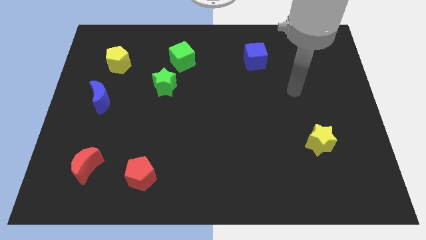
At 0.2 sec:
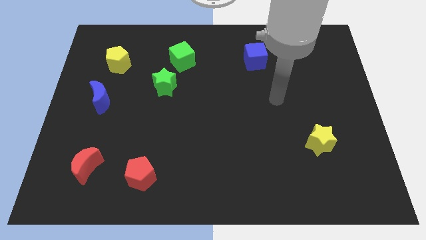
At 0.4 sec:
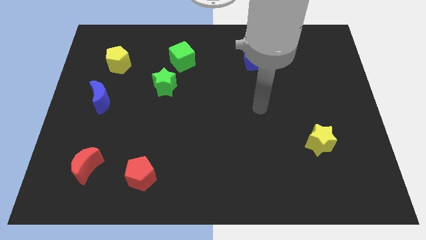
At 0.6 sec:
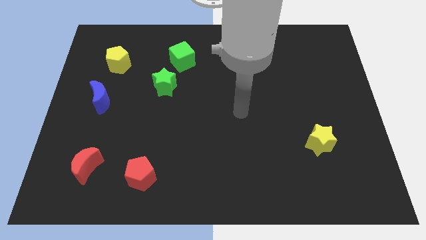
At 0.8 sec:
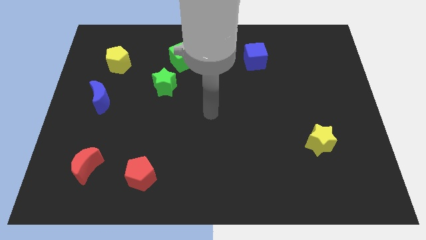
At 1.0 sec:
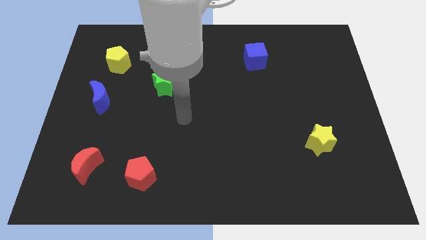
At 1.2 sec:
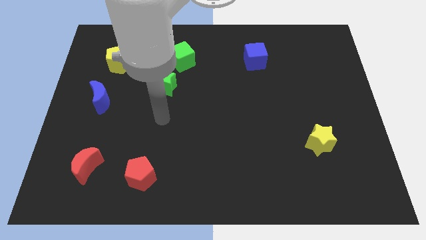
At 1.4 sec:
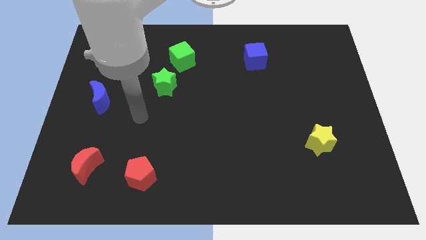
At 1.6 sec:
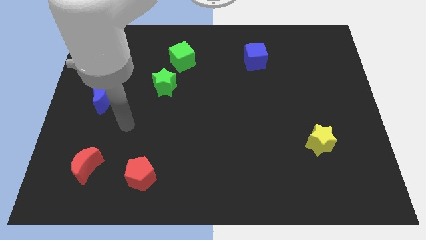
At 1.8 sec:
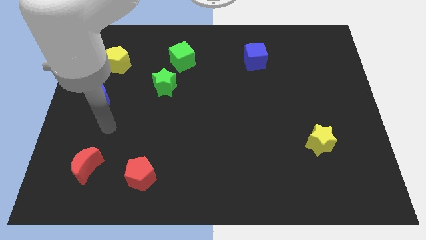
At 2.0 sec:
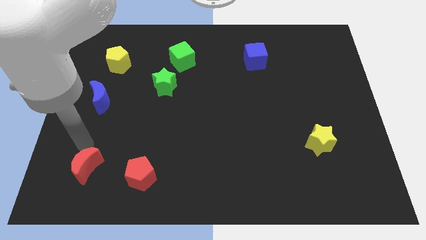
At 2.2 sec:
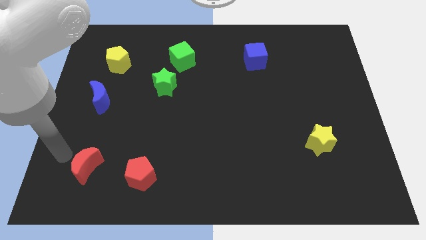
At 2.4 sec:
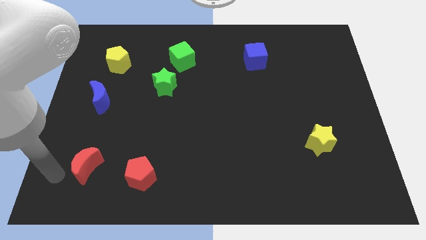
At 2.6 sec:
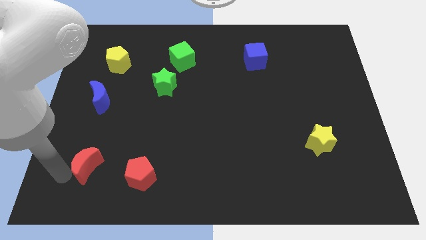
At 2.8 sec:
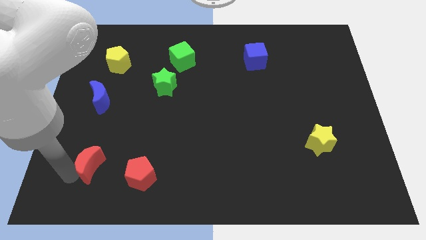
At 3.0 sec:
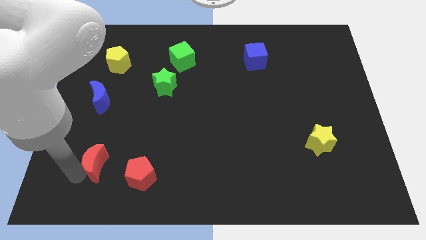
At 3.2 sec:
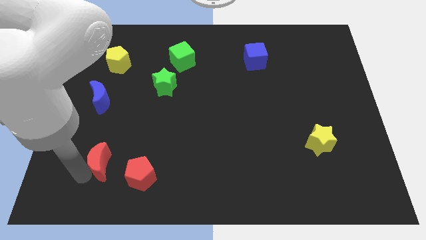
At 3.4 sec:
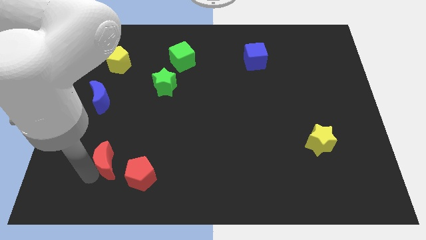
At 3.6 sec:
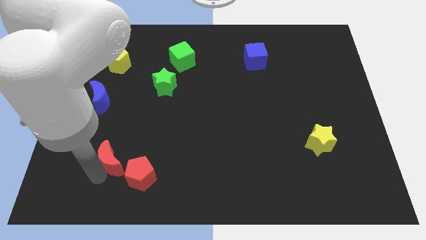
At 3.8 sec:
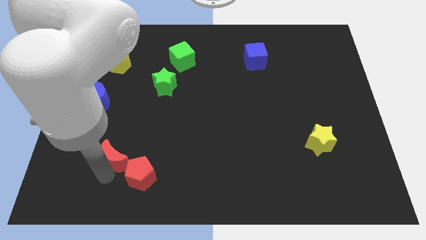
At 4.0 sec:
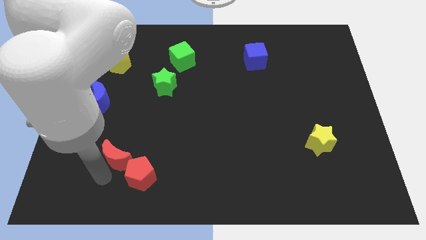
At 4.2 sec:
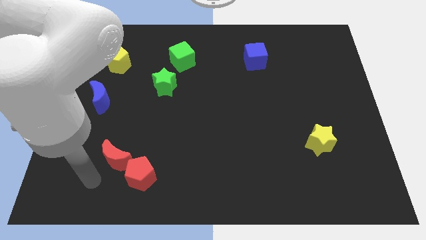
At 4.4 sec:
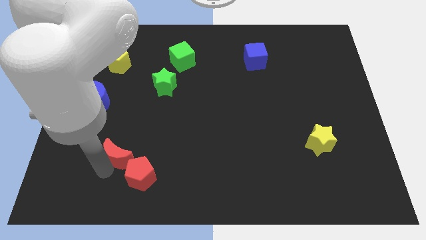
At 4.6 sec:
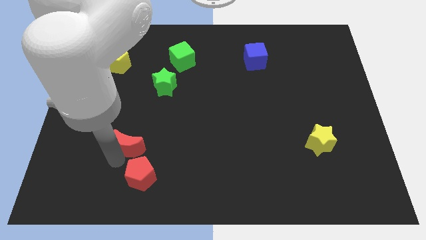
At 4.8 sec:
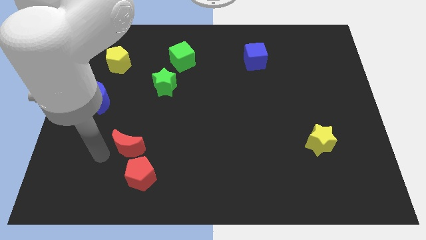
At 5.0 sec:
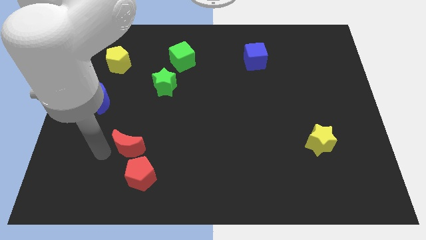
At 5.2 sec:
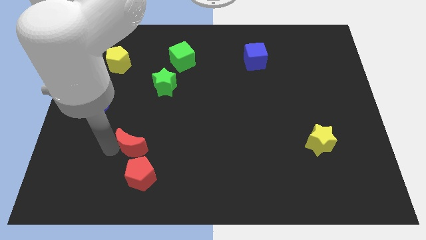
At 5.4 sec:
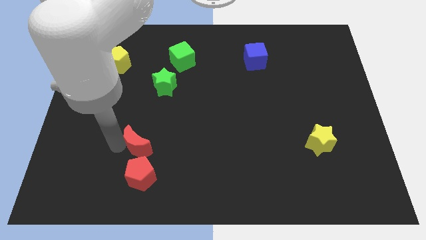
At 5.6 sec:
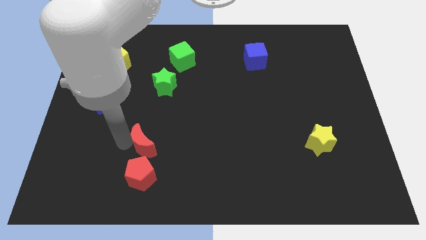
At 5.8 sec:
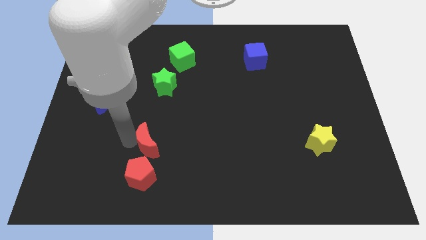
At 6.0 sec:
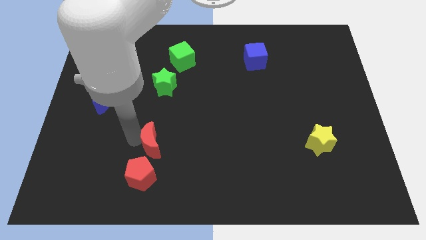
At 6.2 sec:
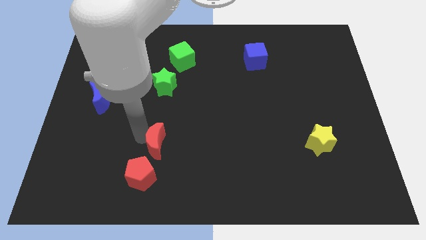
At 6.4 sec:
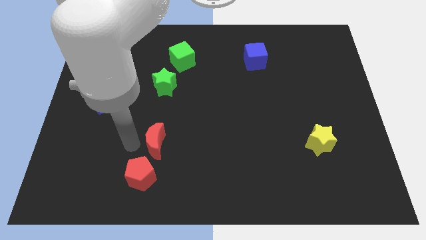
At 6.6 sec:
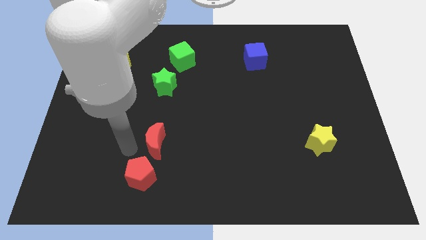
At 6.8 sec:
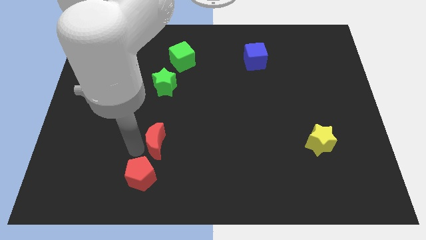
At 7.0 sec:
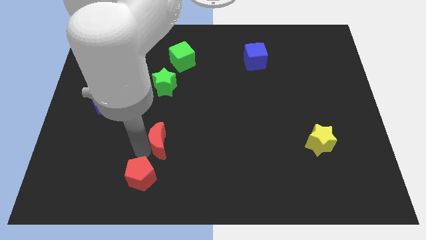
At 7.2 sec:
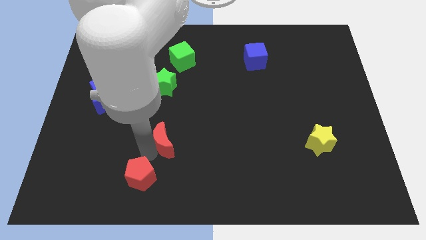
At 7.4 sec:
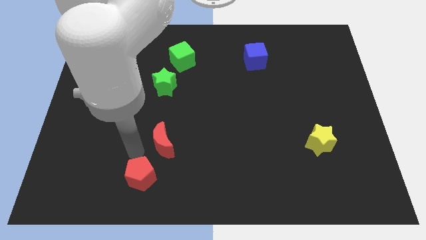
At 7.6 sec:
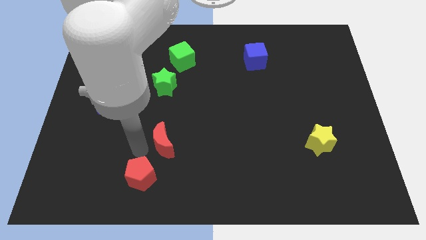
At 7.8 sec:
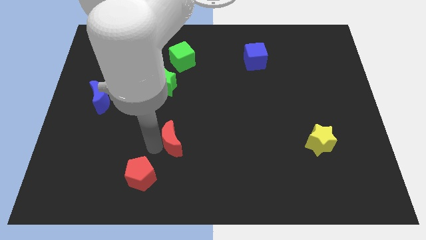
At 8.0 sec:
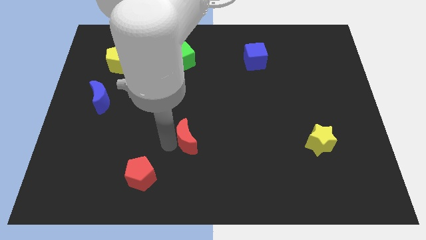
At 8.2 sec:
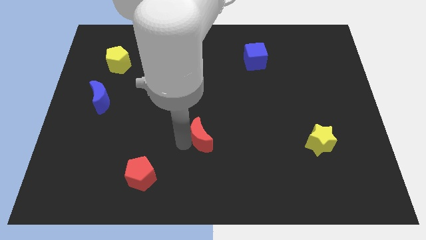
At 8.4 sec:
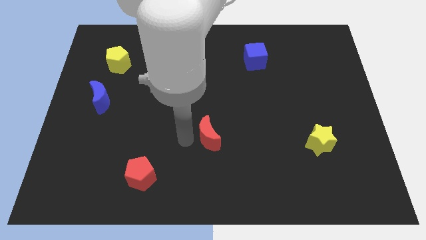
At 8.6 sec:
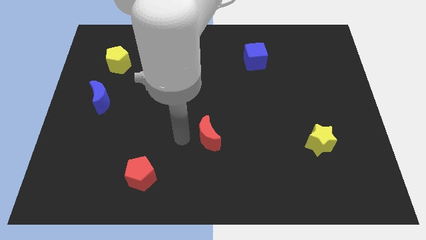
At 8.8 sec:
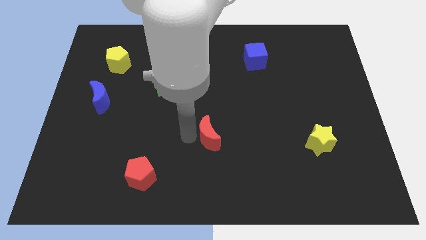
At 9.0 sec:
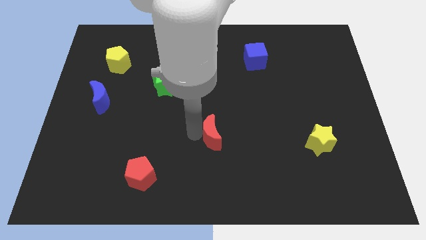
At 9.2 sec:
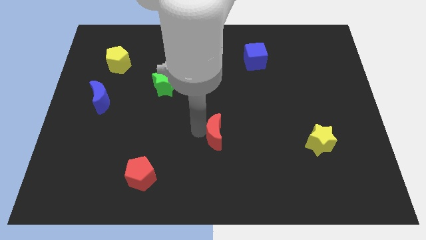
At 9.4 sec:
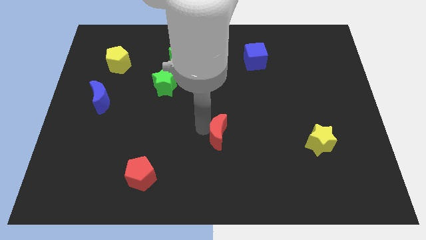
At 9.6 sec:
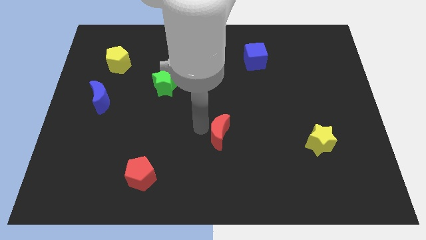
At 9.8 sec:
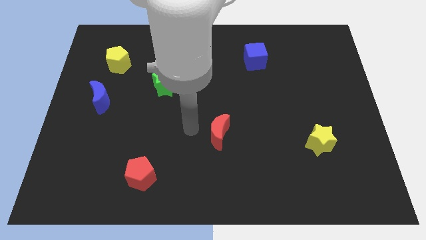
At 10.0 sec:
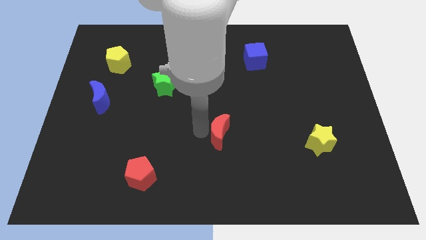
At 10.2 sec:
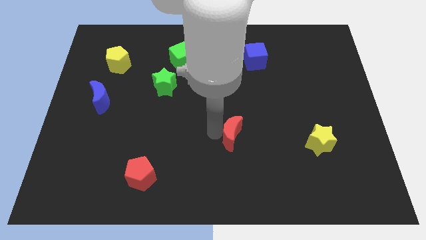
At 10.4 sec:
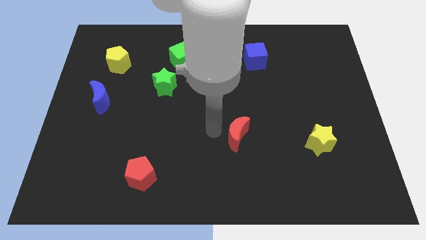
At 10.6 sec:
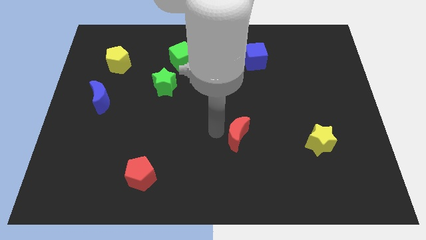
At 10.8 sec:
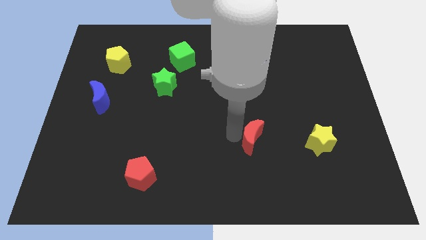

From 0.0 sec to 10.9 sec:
put the red moon to the left side of the yellow star

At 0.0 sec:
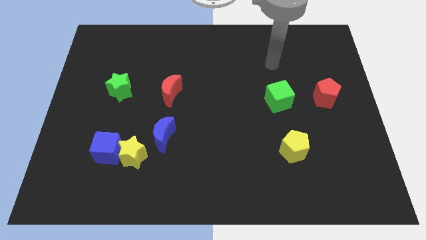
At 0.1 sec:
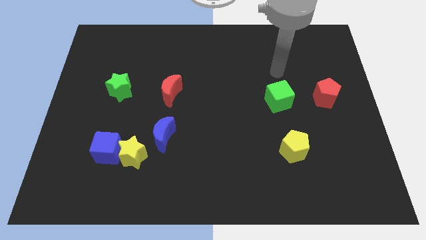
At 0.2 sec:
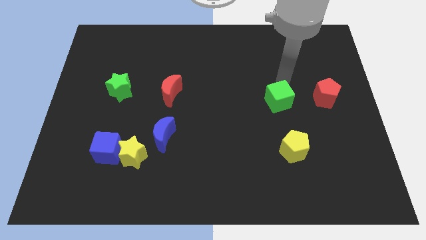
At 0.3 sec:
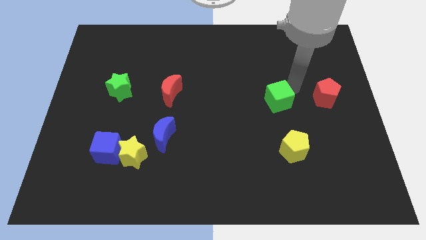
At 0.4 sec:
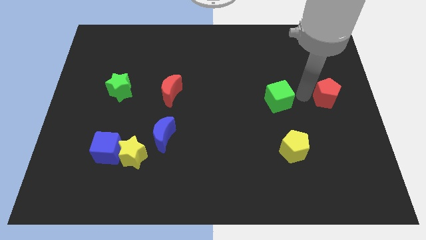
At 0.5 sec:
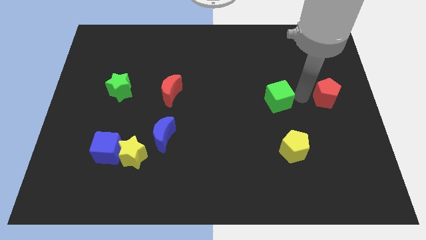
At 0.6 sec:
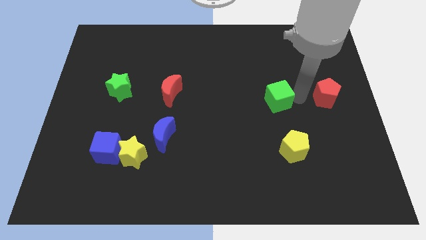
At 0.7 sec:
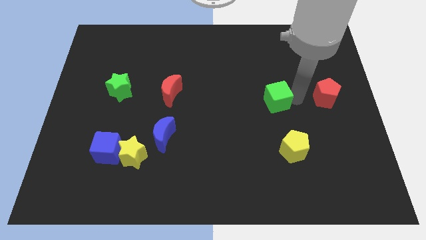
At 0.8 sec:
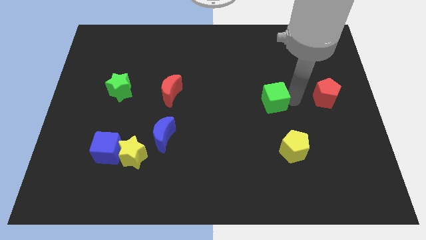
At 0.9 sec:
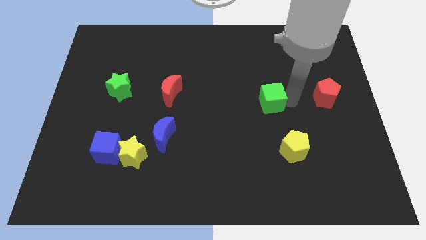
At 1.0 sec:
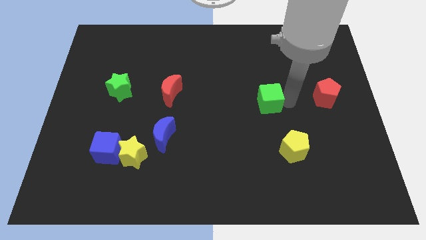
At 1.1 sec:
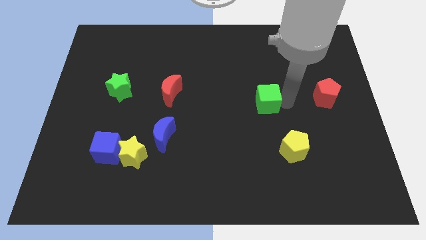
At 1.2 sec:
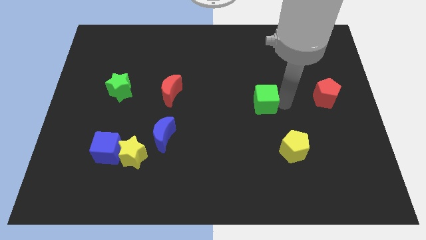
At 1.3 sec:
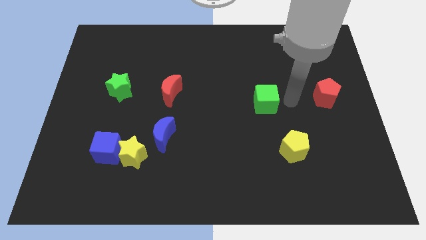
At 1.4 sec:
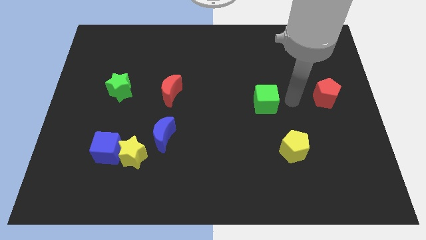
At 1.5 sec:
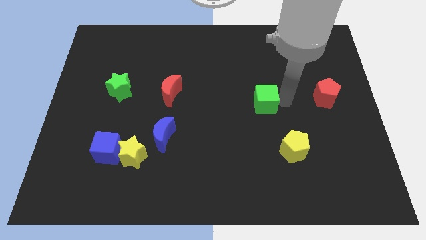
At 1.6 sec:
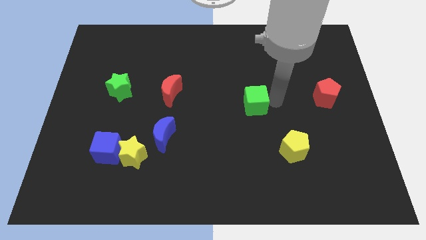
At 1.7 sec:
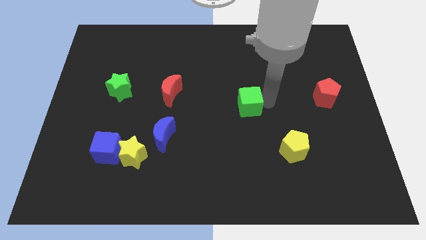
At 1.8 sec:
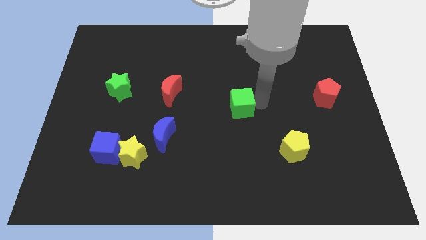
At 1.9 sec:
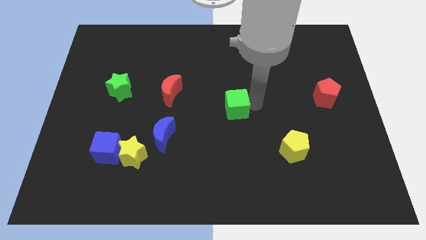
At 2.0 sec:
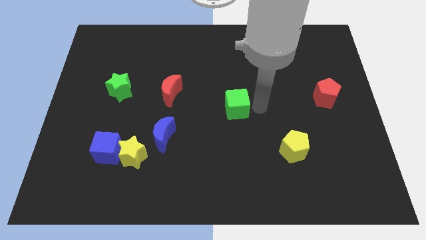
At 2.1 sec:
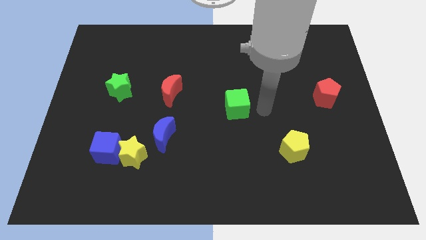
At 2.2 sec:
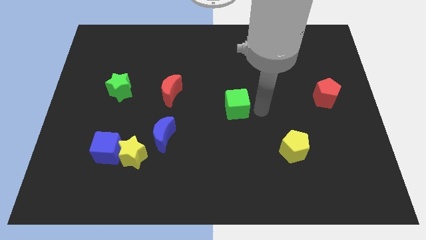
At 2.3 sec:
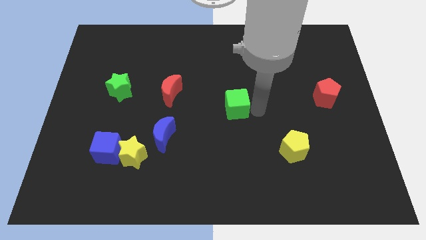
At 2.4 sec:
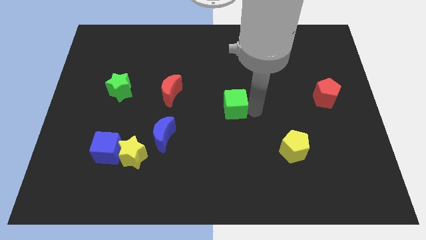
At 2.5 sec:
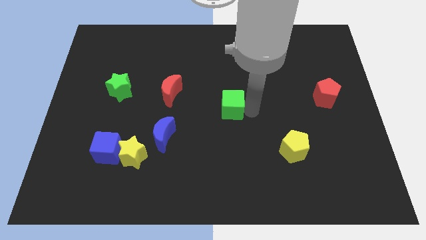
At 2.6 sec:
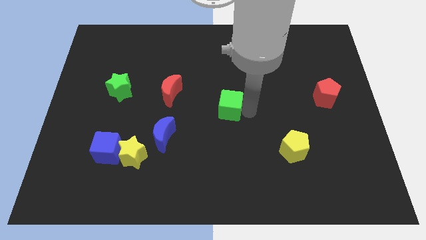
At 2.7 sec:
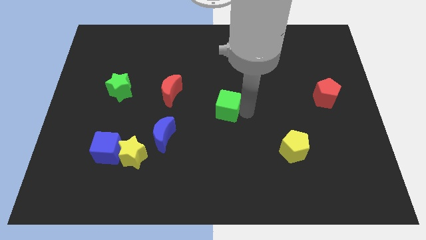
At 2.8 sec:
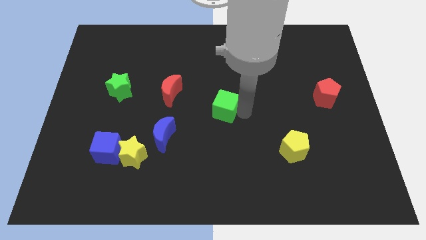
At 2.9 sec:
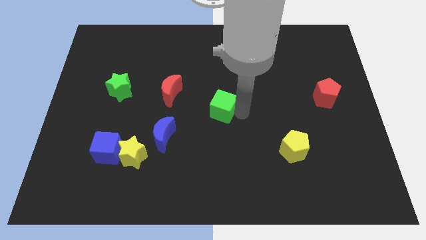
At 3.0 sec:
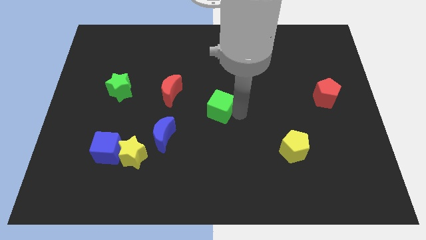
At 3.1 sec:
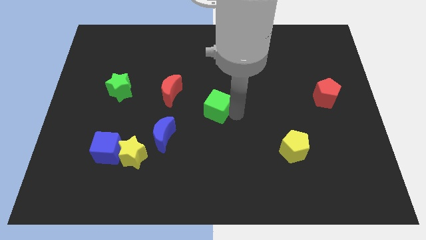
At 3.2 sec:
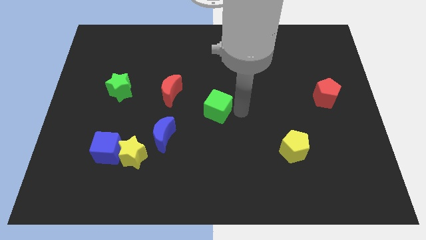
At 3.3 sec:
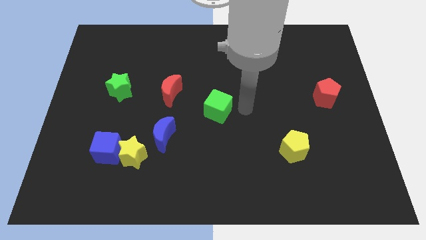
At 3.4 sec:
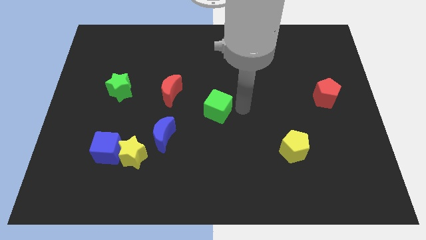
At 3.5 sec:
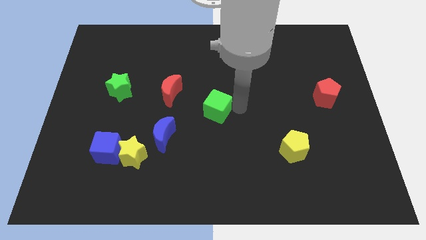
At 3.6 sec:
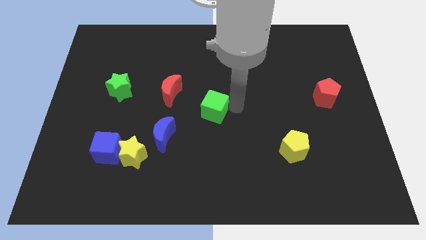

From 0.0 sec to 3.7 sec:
push the green cube to the bottom right of the red moon
